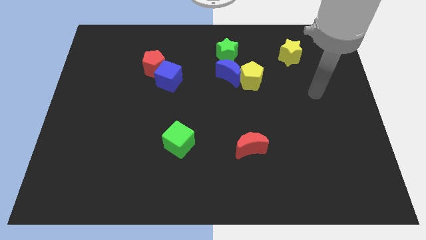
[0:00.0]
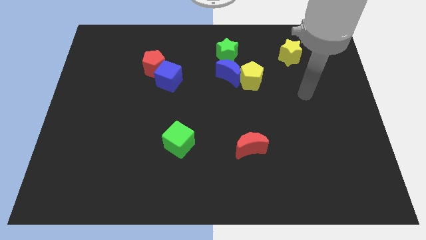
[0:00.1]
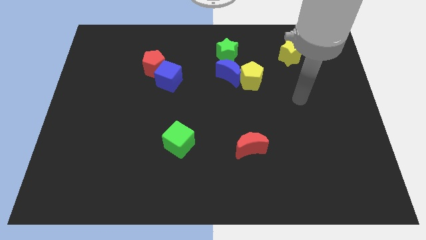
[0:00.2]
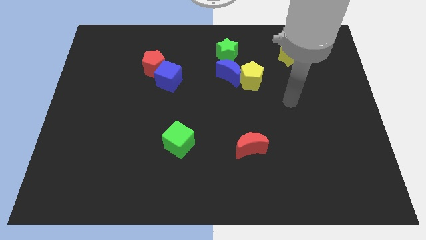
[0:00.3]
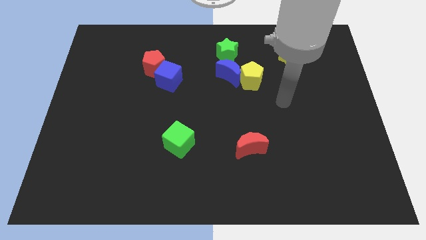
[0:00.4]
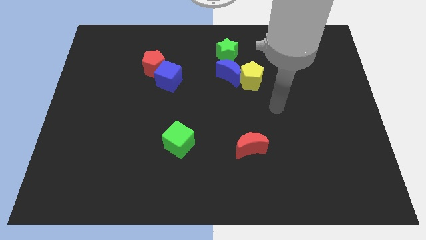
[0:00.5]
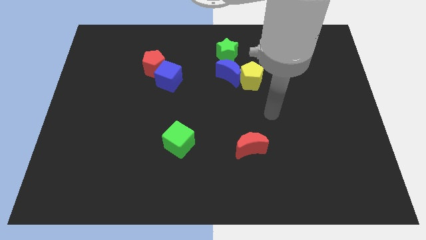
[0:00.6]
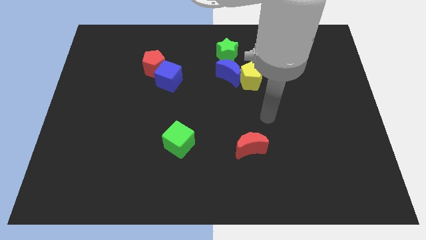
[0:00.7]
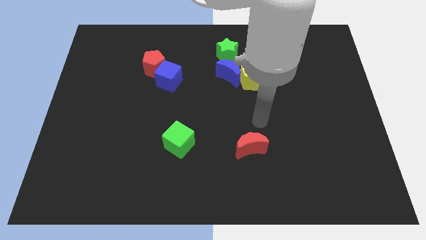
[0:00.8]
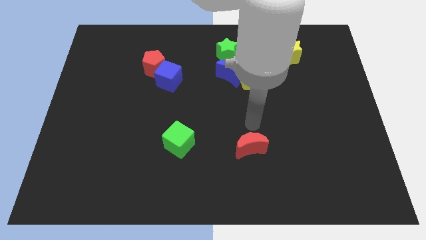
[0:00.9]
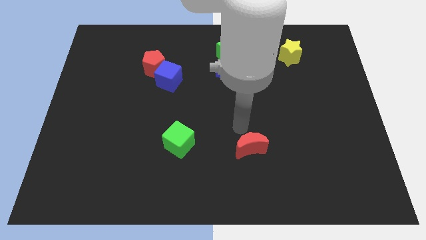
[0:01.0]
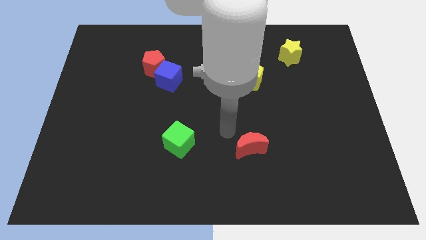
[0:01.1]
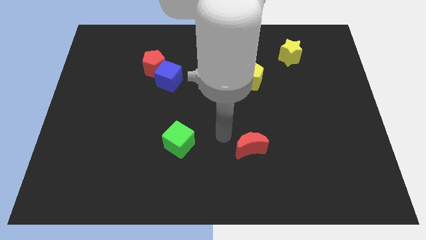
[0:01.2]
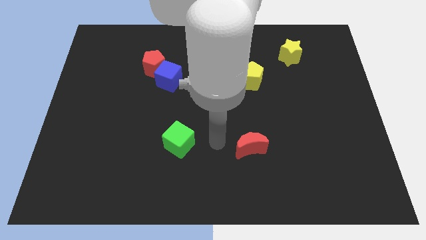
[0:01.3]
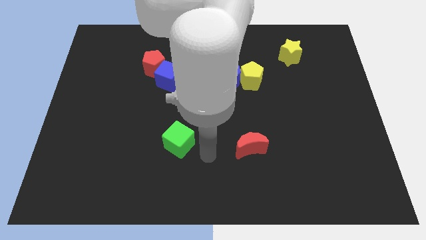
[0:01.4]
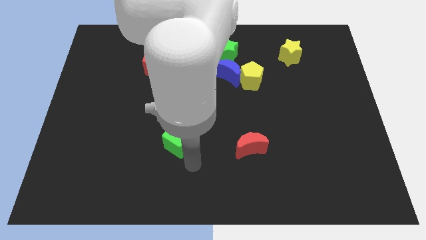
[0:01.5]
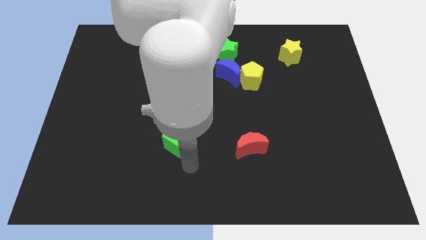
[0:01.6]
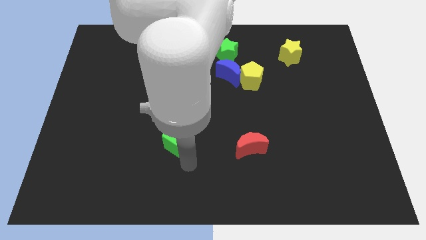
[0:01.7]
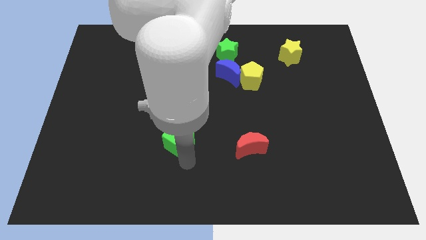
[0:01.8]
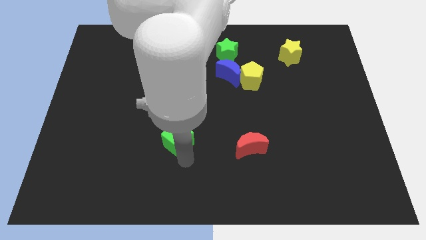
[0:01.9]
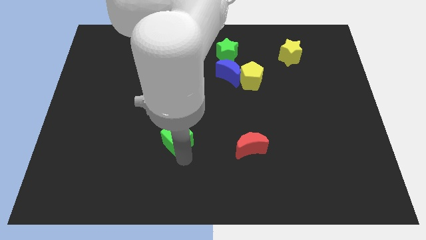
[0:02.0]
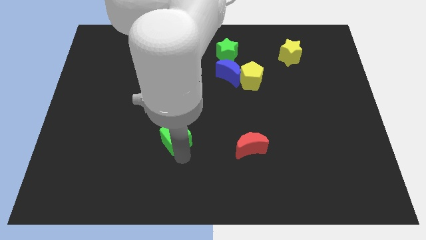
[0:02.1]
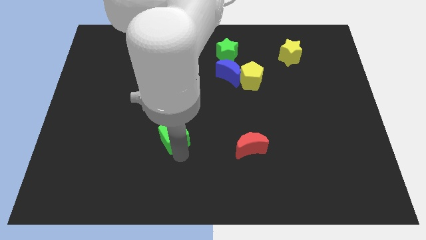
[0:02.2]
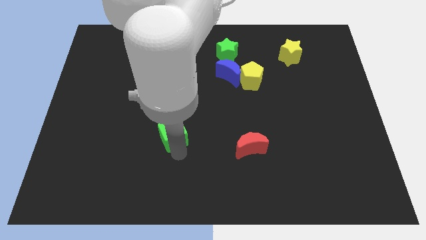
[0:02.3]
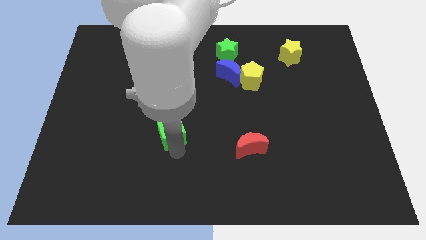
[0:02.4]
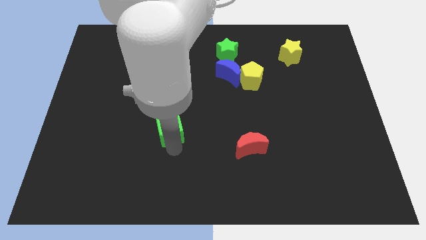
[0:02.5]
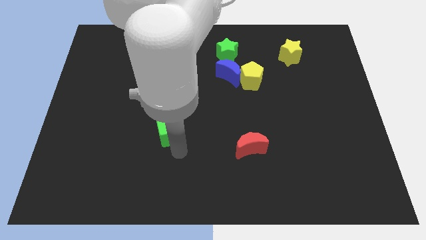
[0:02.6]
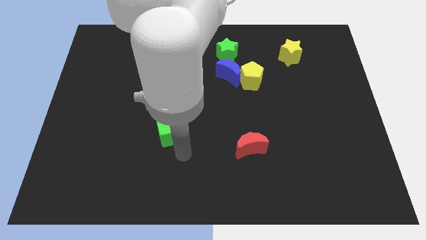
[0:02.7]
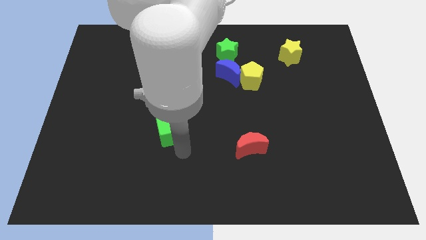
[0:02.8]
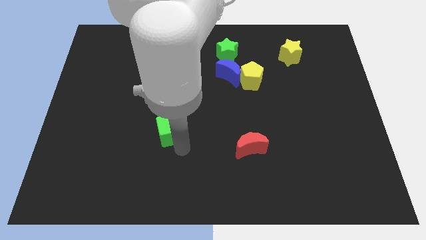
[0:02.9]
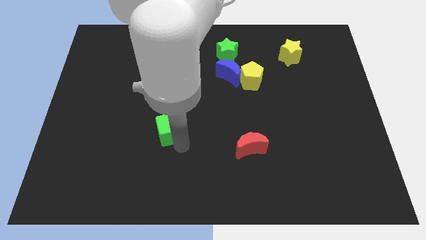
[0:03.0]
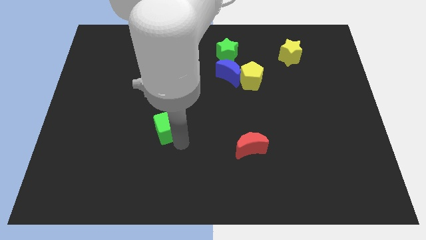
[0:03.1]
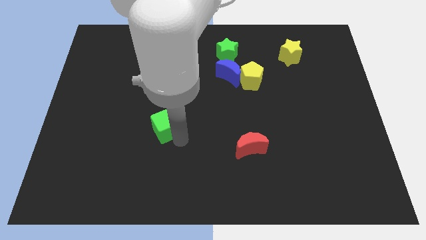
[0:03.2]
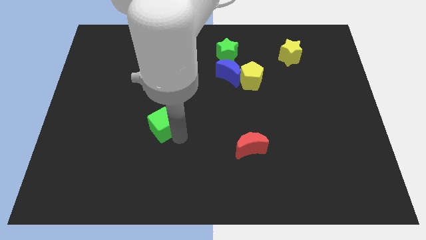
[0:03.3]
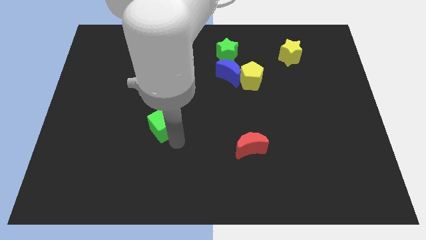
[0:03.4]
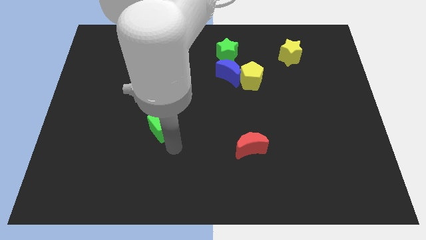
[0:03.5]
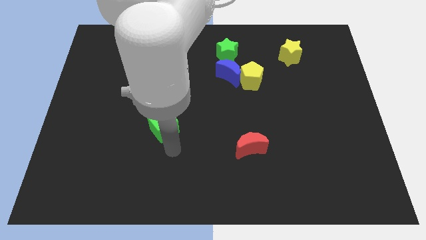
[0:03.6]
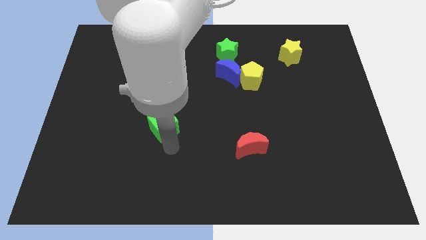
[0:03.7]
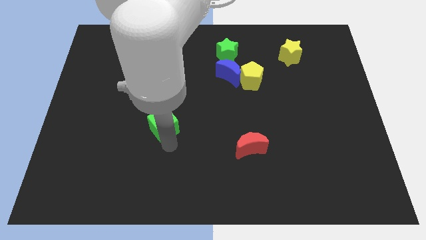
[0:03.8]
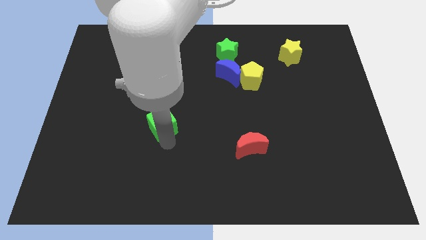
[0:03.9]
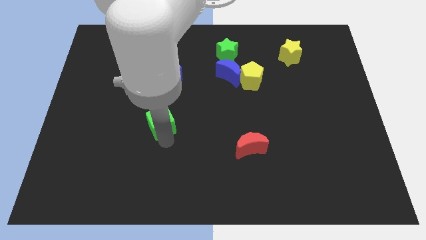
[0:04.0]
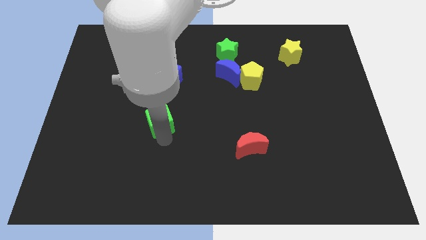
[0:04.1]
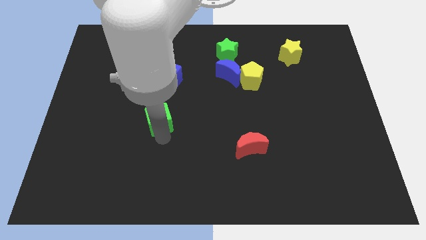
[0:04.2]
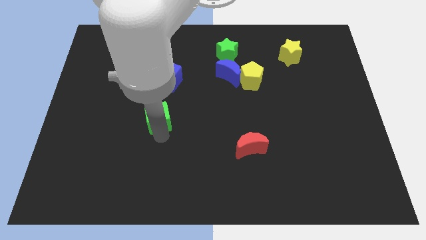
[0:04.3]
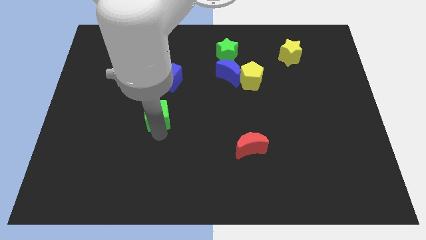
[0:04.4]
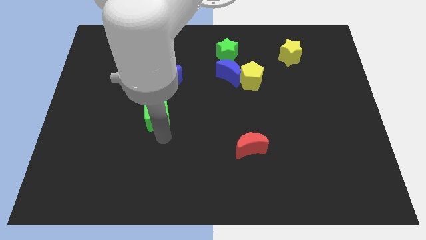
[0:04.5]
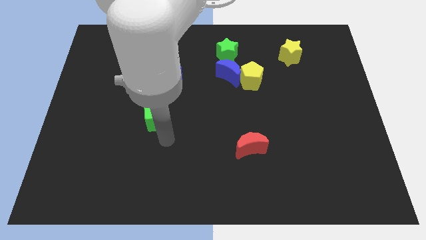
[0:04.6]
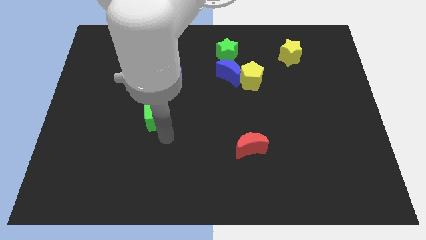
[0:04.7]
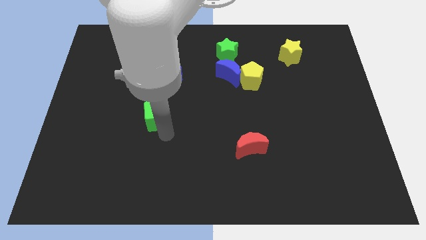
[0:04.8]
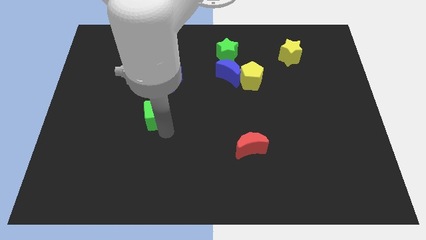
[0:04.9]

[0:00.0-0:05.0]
slide the green cube to the bottom side of the red pentagon

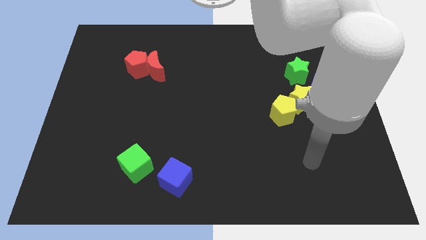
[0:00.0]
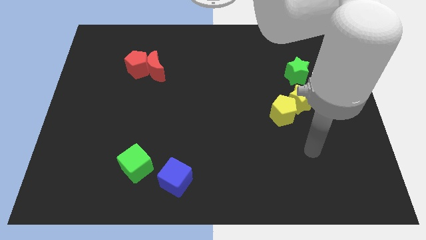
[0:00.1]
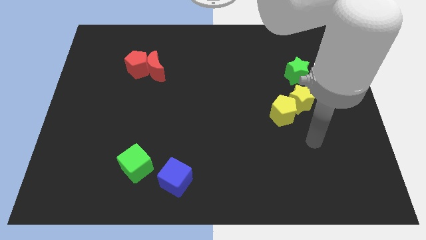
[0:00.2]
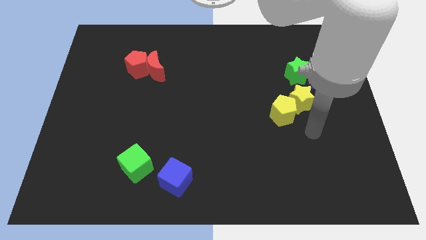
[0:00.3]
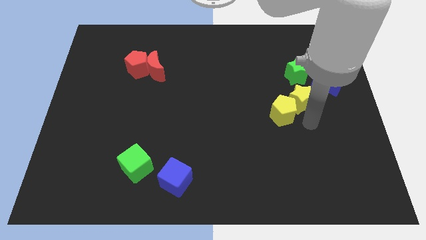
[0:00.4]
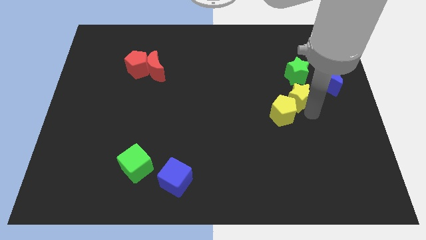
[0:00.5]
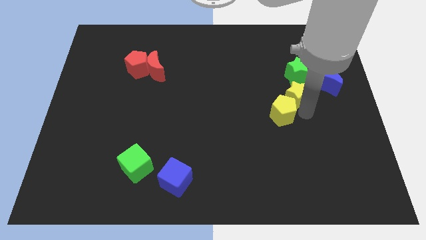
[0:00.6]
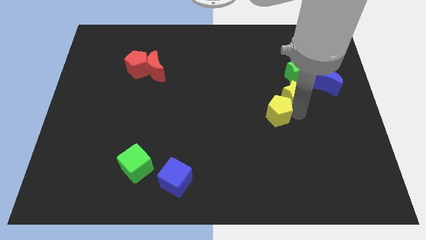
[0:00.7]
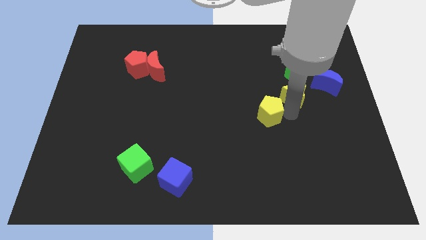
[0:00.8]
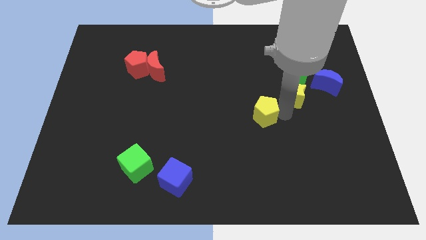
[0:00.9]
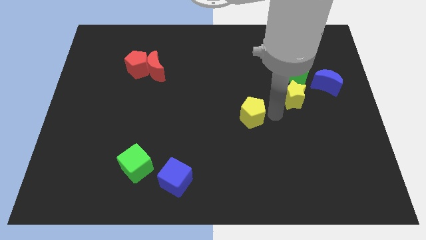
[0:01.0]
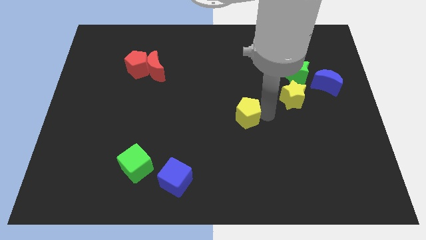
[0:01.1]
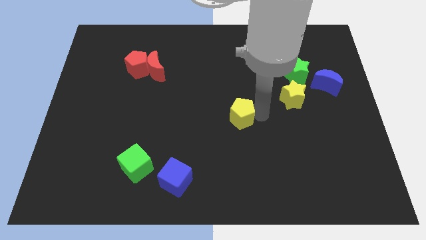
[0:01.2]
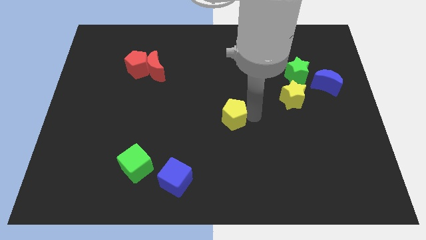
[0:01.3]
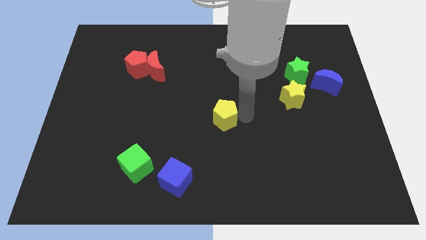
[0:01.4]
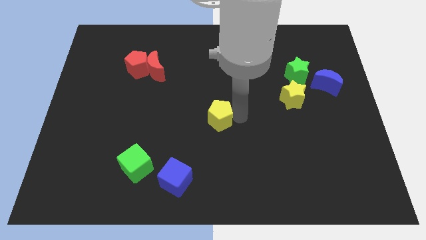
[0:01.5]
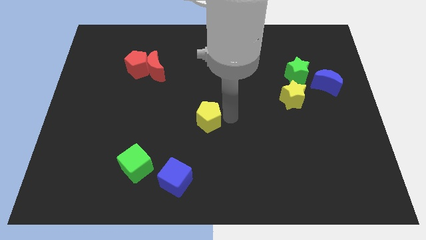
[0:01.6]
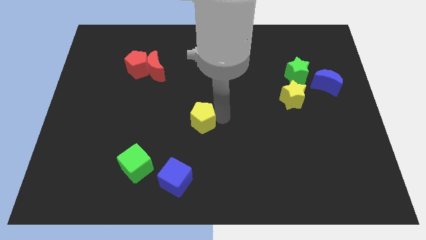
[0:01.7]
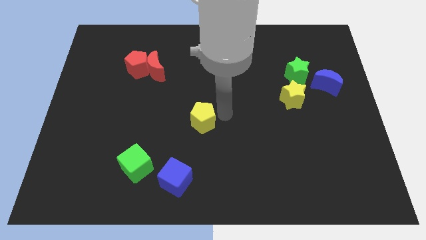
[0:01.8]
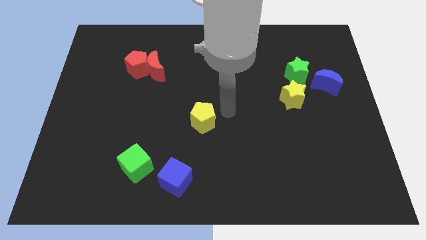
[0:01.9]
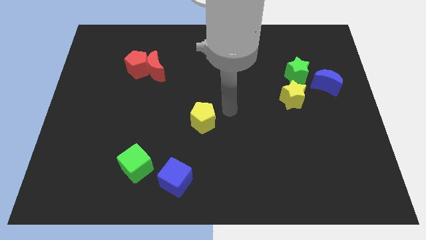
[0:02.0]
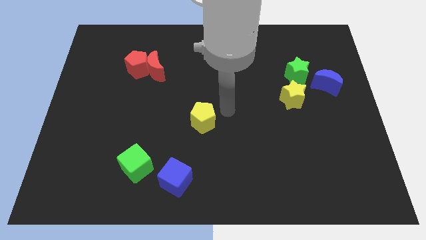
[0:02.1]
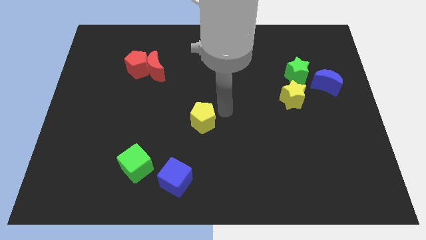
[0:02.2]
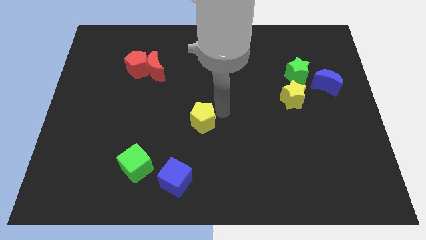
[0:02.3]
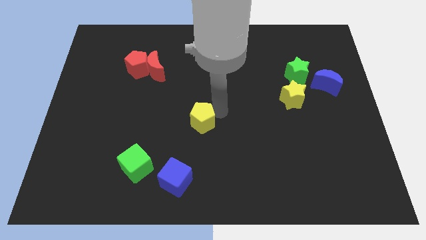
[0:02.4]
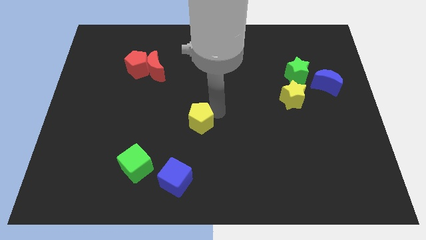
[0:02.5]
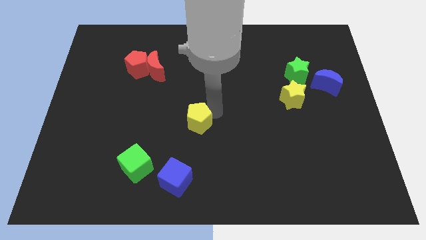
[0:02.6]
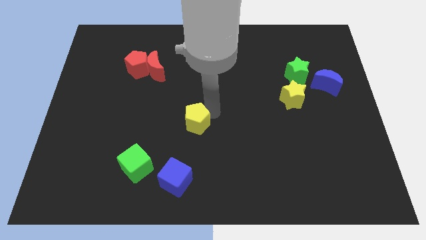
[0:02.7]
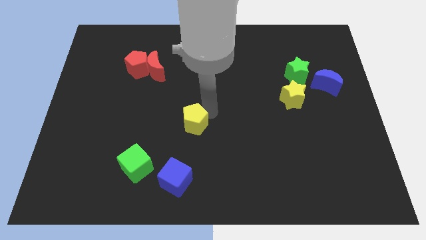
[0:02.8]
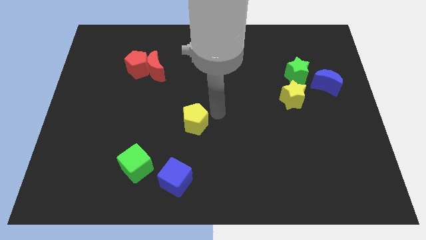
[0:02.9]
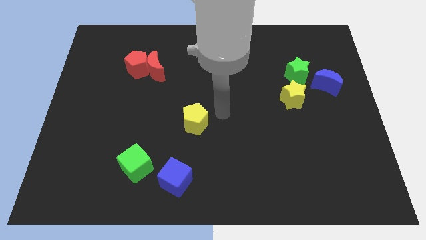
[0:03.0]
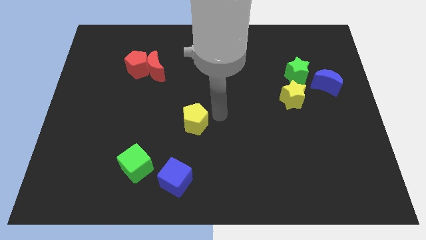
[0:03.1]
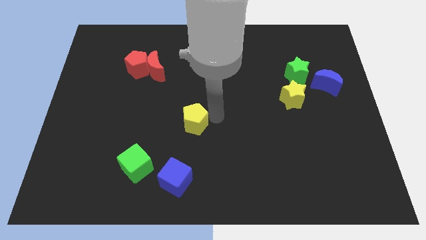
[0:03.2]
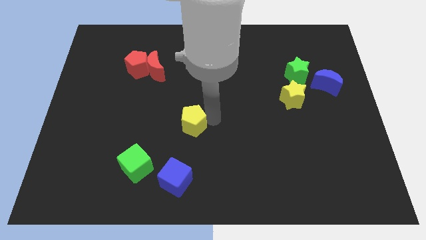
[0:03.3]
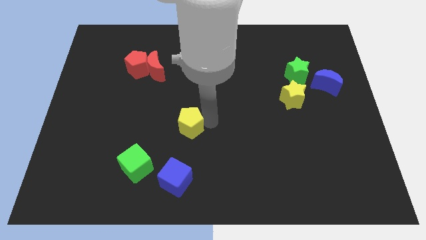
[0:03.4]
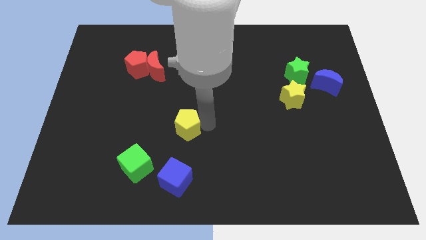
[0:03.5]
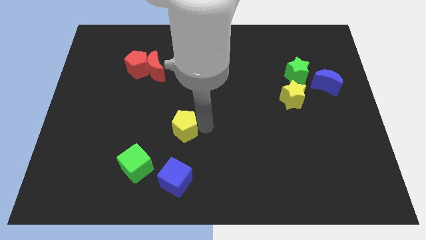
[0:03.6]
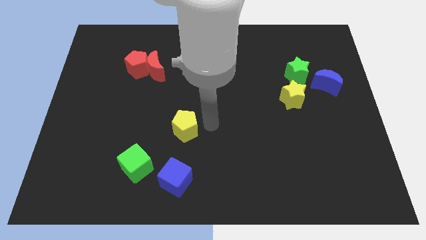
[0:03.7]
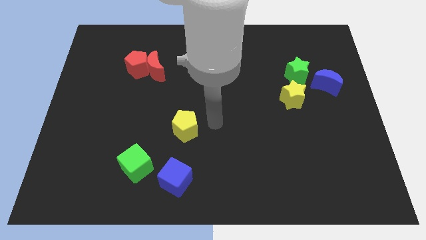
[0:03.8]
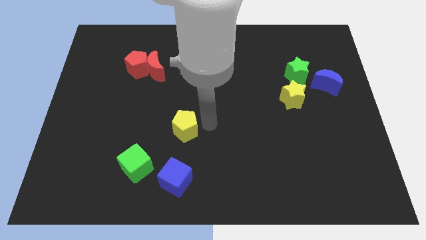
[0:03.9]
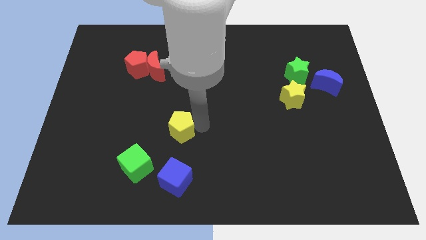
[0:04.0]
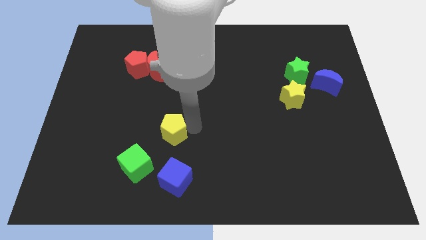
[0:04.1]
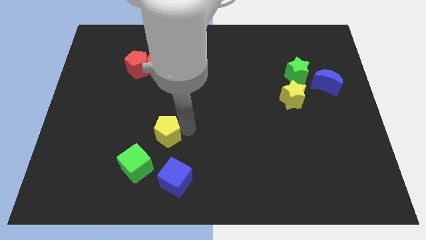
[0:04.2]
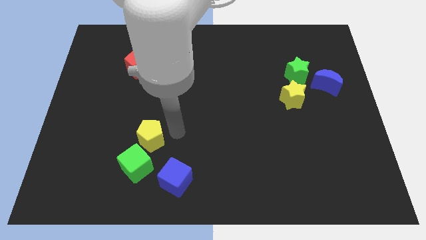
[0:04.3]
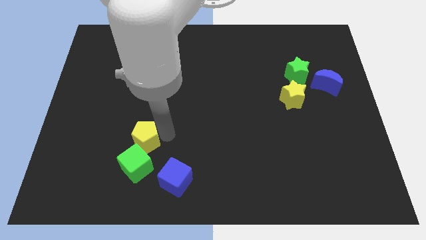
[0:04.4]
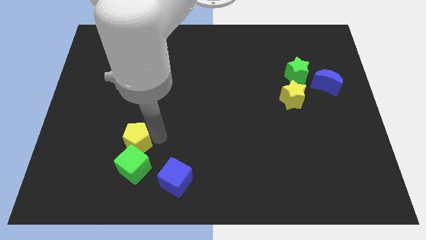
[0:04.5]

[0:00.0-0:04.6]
put the yellow pentagon diagonally up and to the left of the green cube
